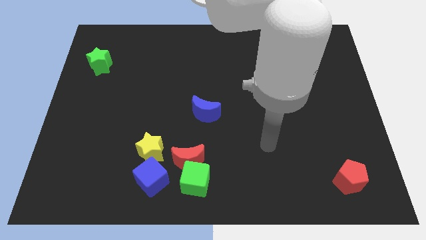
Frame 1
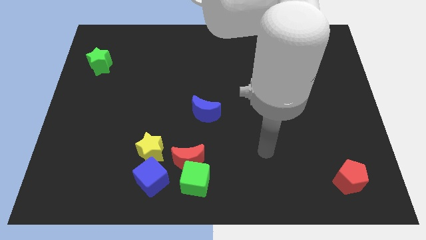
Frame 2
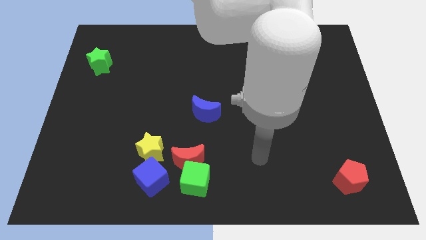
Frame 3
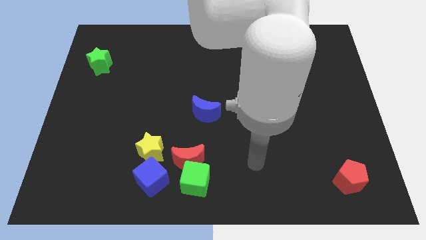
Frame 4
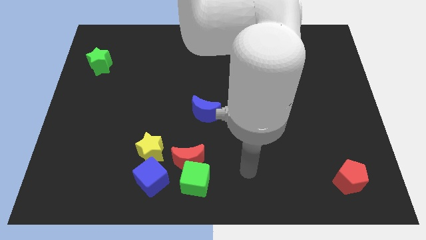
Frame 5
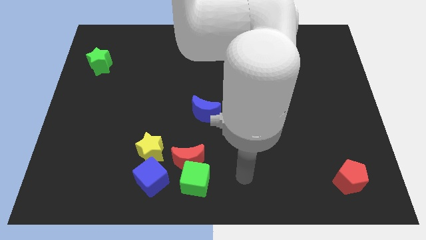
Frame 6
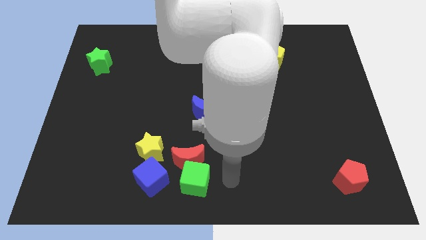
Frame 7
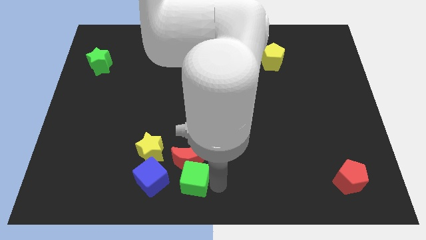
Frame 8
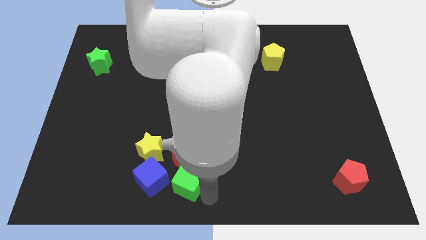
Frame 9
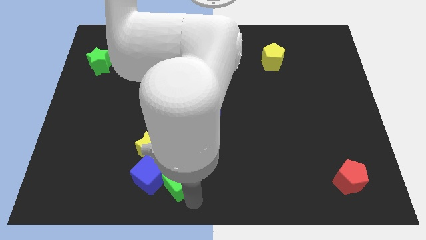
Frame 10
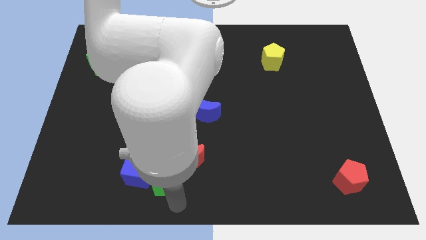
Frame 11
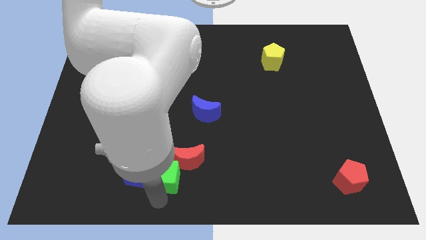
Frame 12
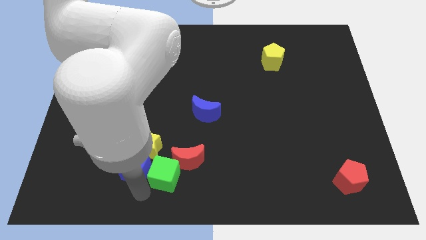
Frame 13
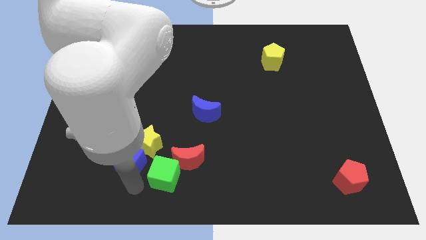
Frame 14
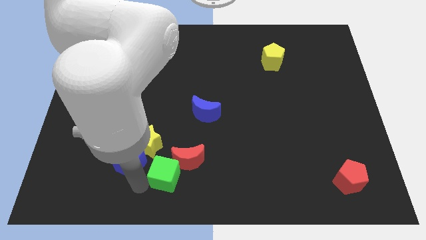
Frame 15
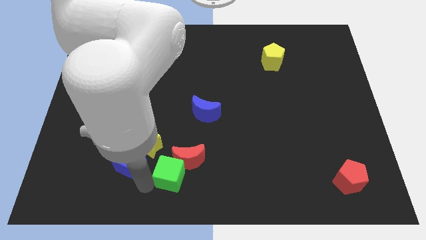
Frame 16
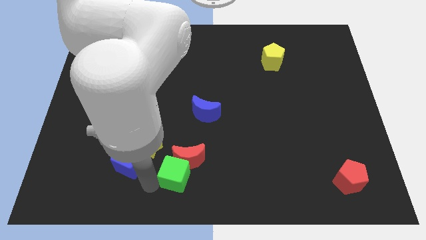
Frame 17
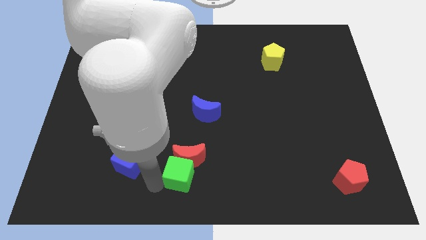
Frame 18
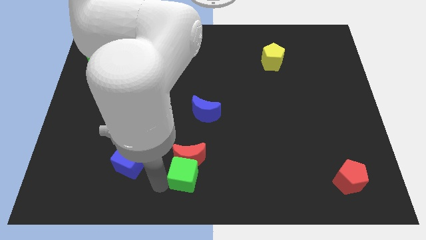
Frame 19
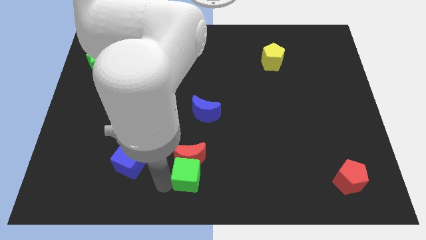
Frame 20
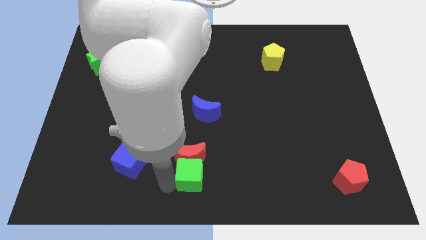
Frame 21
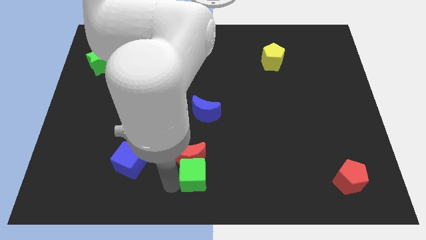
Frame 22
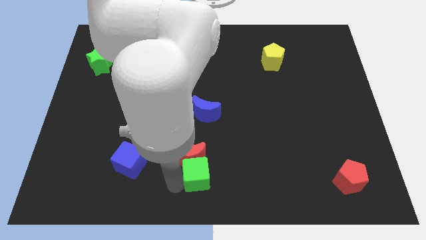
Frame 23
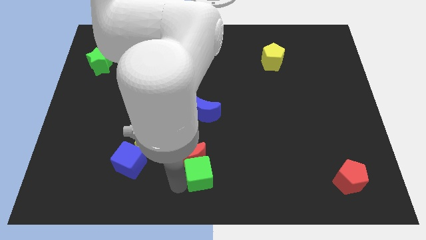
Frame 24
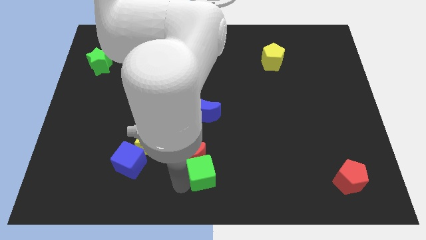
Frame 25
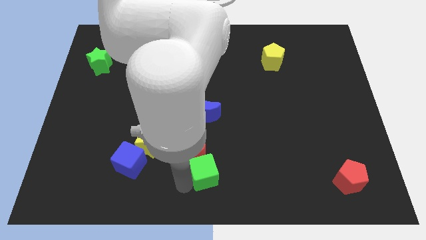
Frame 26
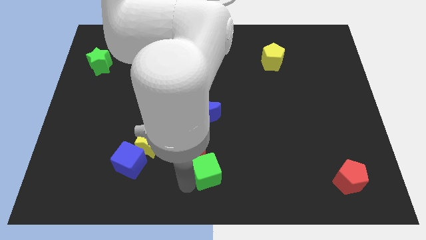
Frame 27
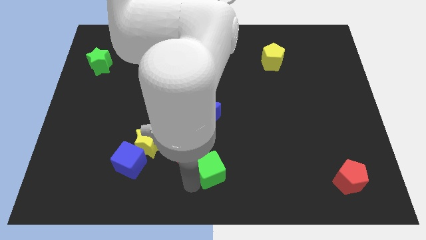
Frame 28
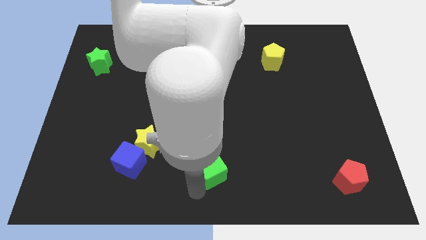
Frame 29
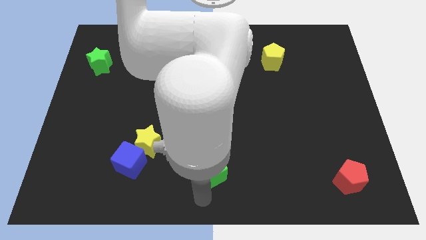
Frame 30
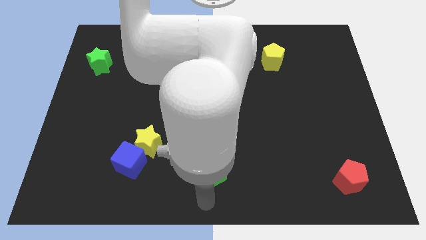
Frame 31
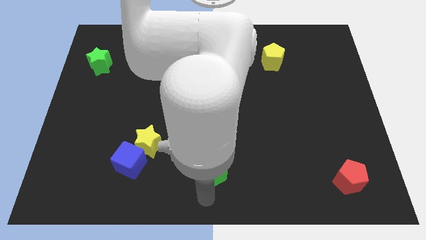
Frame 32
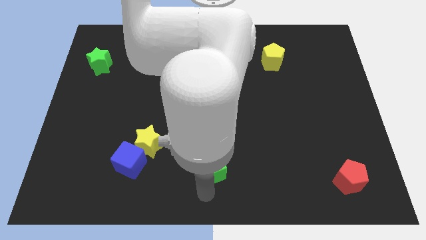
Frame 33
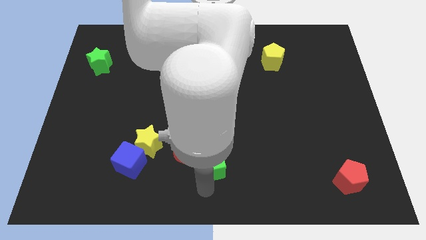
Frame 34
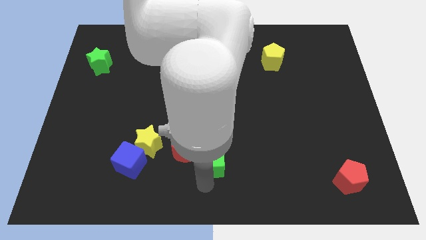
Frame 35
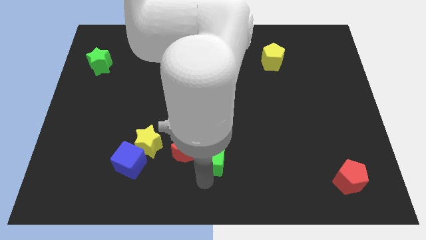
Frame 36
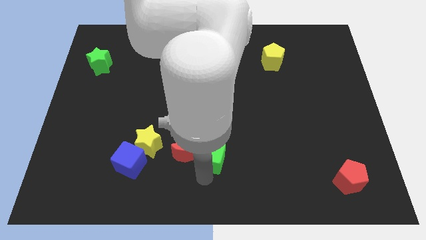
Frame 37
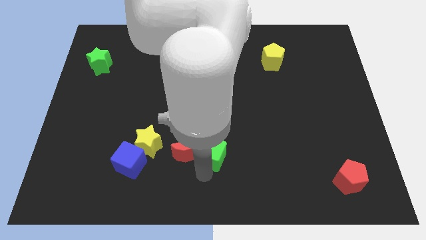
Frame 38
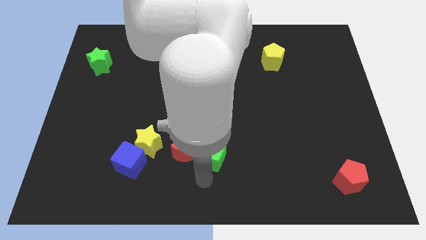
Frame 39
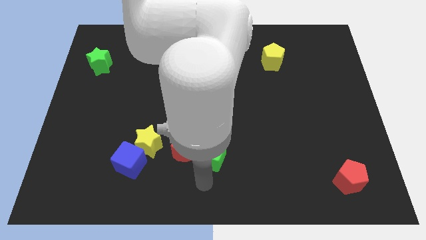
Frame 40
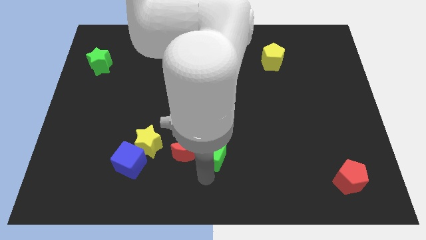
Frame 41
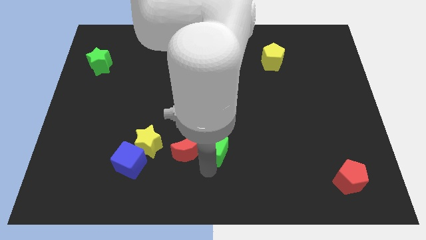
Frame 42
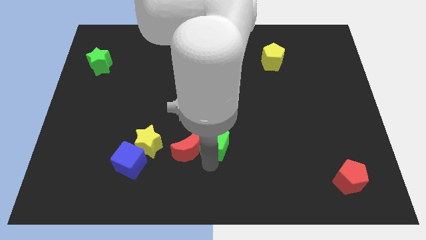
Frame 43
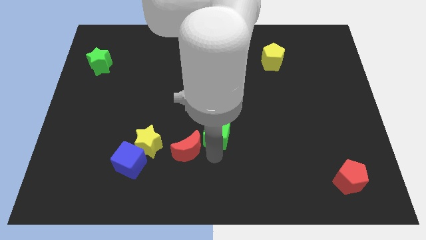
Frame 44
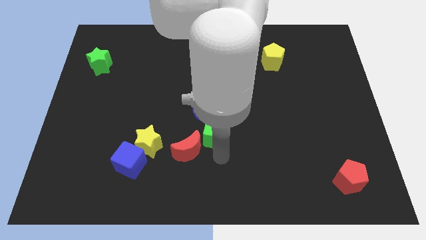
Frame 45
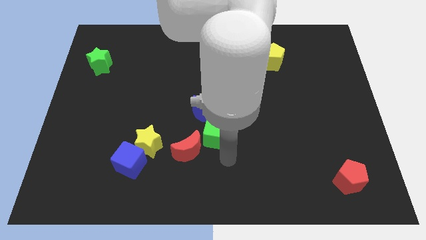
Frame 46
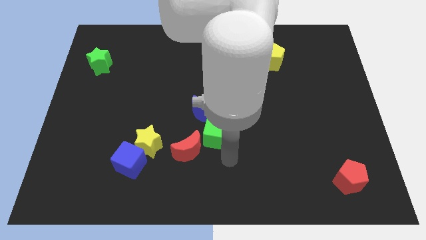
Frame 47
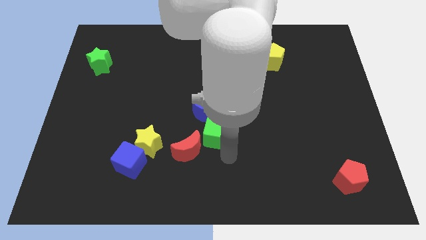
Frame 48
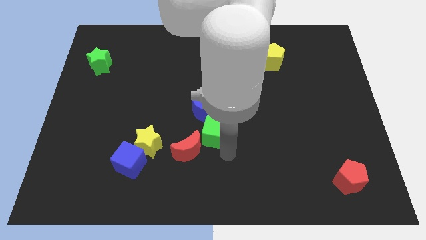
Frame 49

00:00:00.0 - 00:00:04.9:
push the green cube next to the blue moon

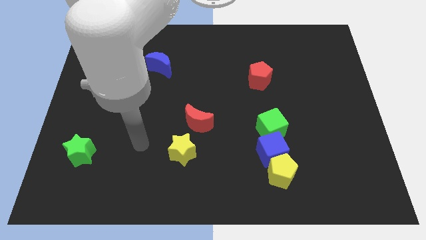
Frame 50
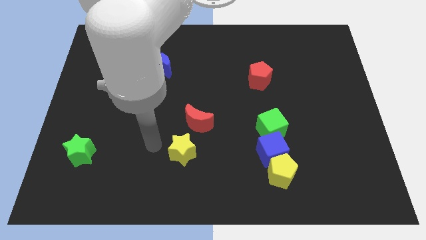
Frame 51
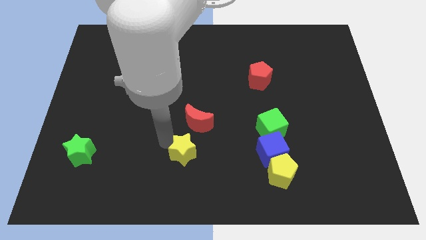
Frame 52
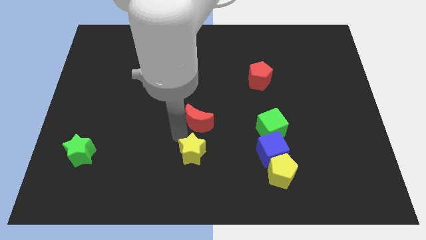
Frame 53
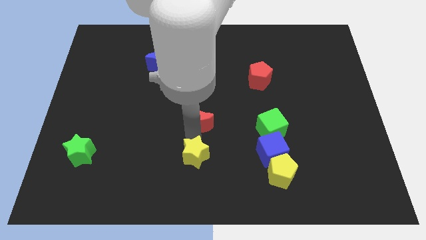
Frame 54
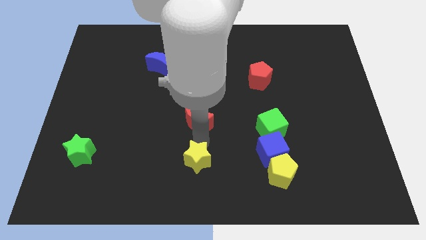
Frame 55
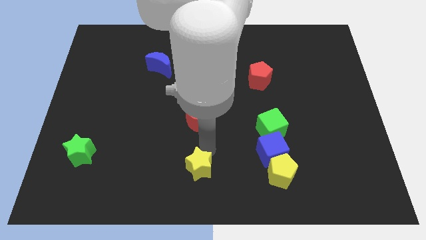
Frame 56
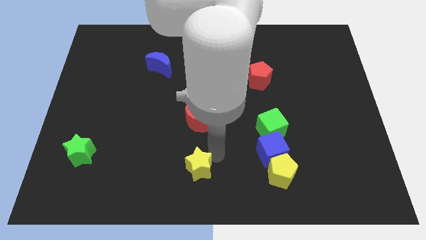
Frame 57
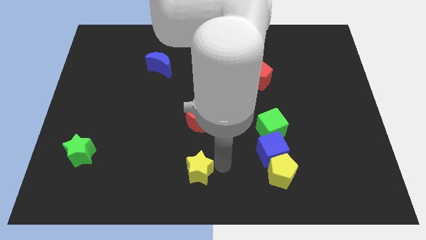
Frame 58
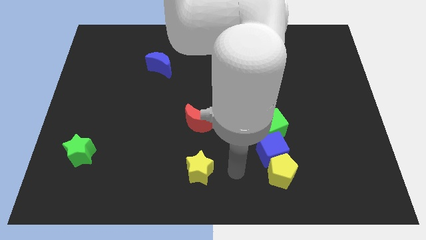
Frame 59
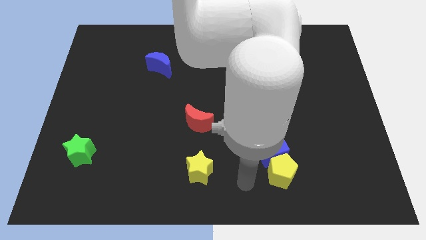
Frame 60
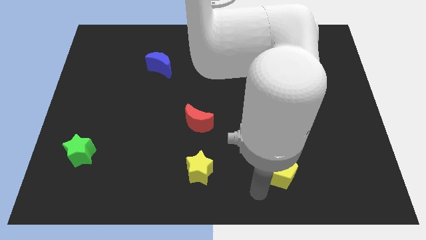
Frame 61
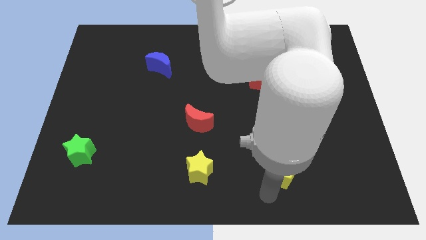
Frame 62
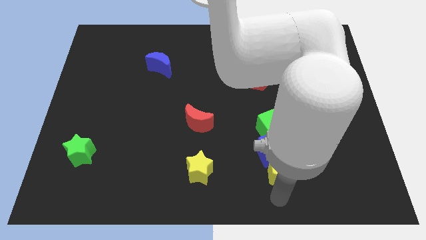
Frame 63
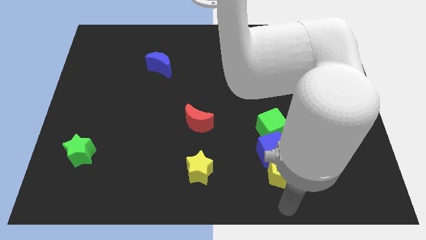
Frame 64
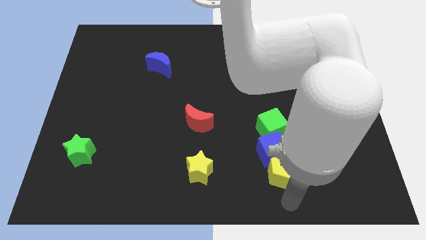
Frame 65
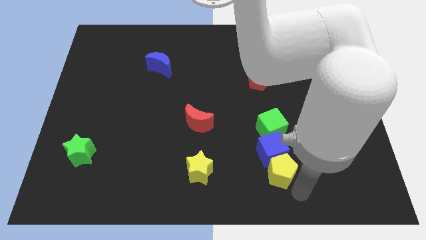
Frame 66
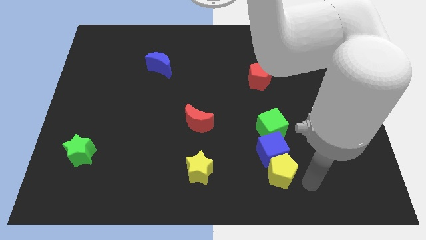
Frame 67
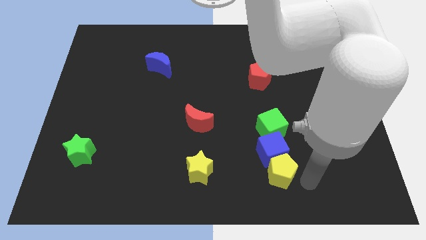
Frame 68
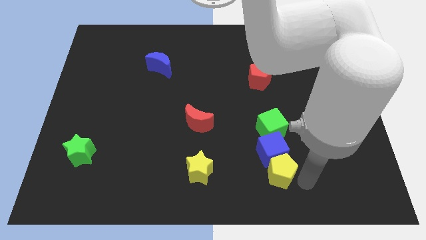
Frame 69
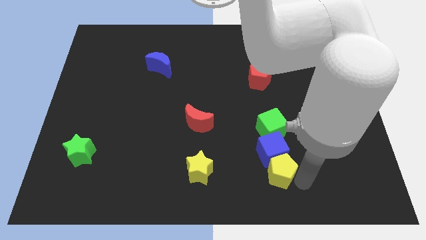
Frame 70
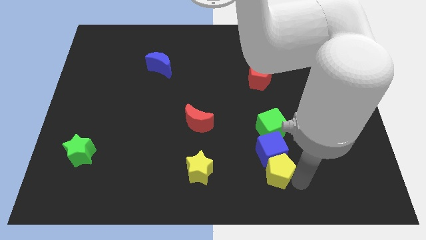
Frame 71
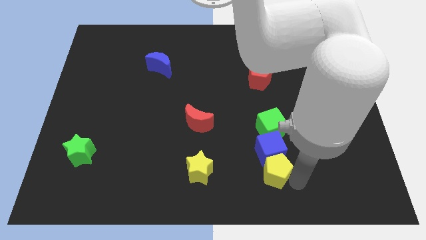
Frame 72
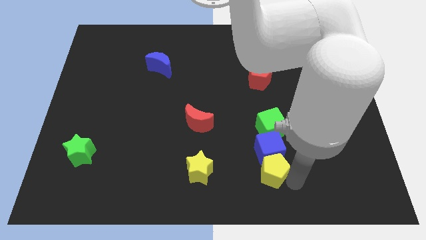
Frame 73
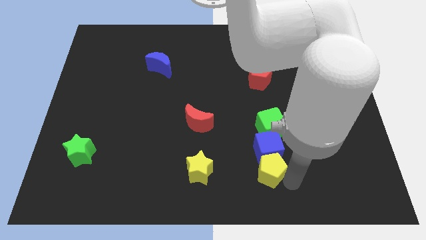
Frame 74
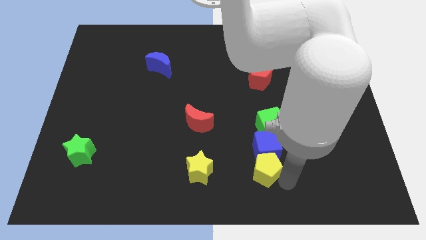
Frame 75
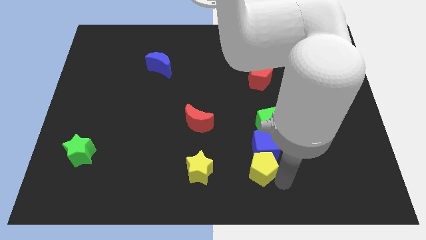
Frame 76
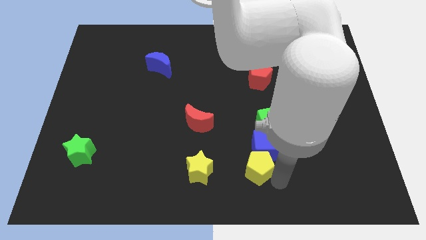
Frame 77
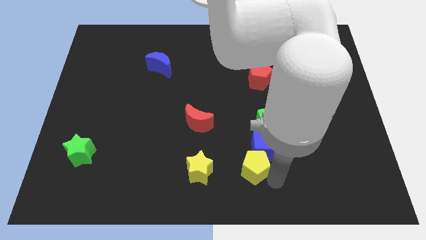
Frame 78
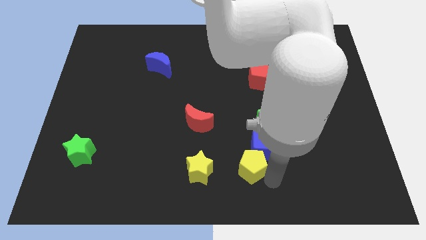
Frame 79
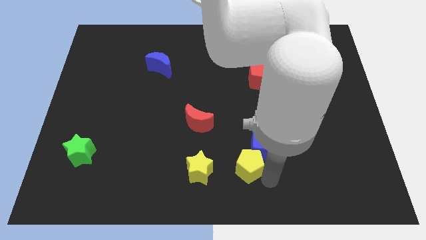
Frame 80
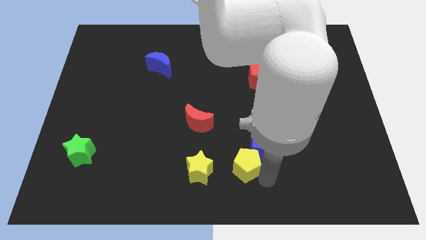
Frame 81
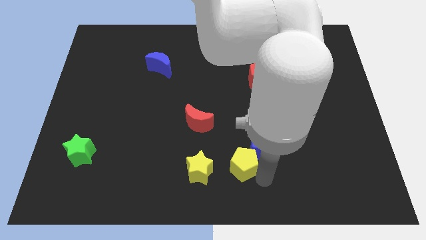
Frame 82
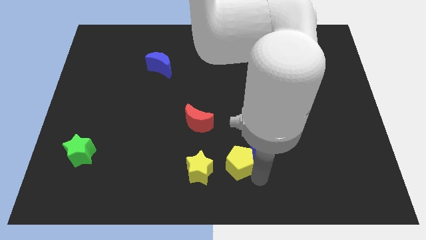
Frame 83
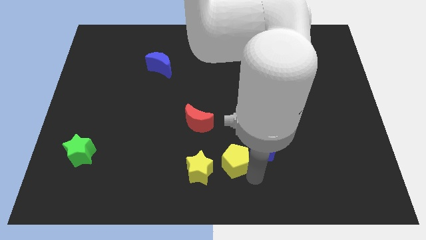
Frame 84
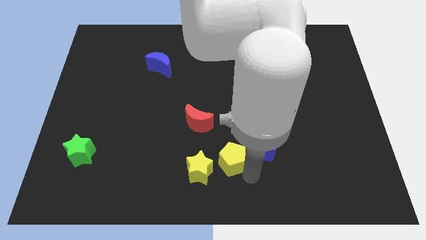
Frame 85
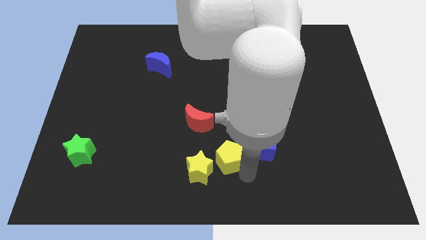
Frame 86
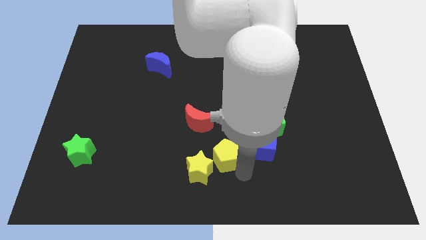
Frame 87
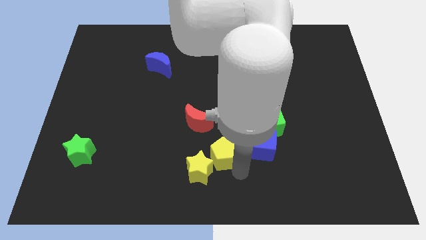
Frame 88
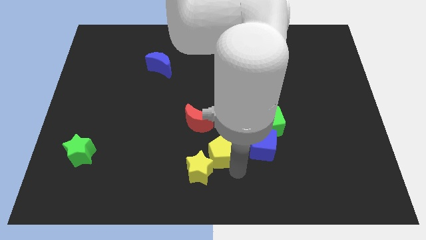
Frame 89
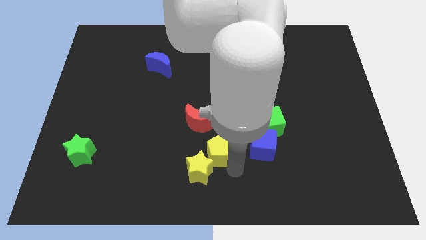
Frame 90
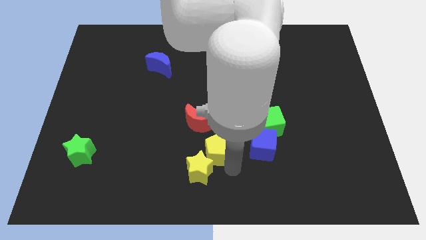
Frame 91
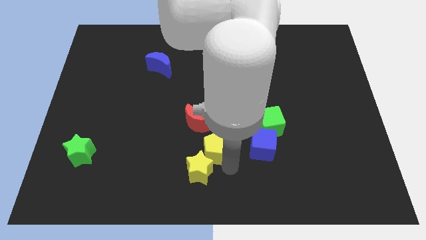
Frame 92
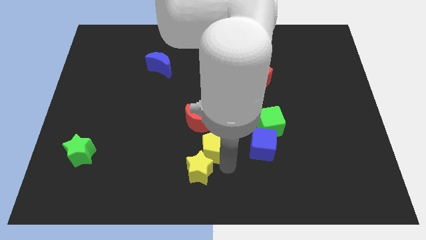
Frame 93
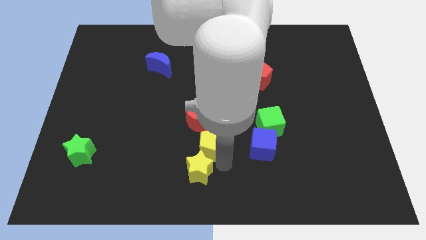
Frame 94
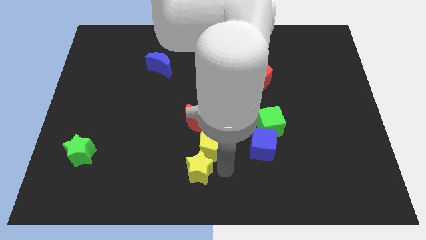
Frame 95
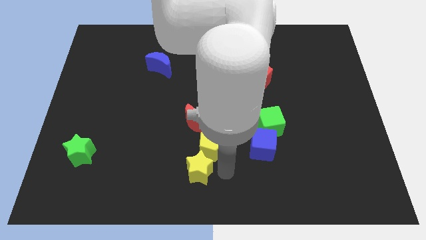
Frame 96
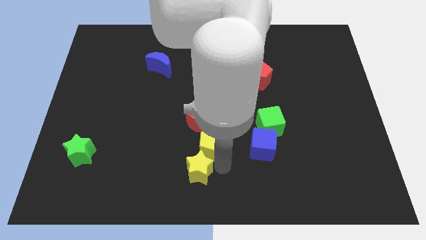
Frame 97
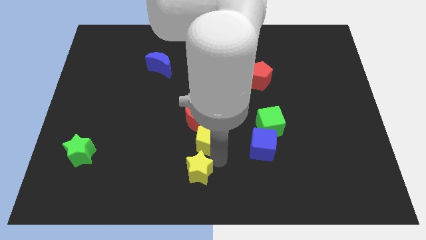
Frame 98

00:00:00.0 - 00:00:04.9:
push the yellow pentagon towards the red moon
